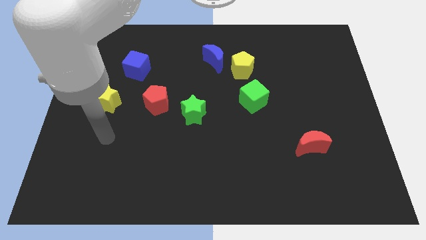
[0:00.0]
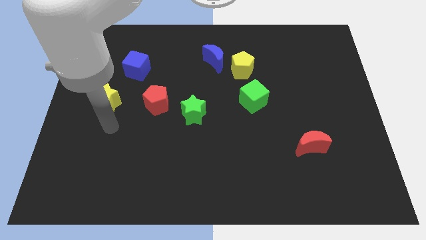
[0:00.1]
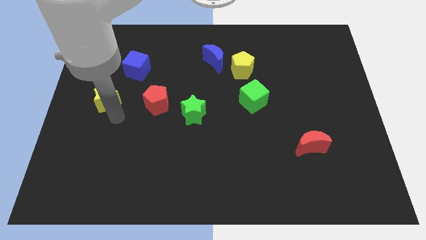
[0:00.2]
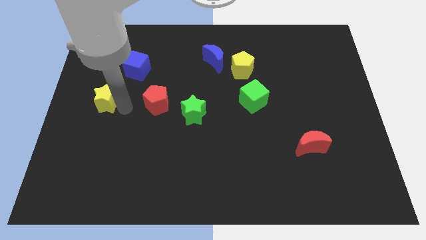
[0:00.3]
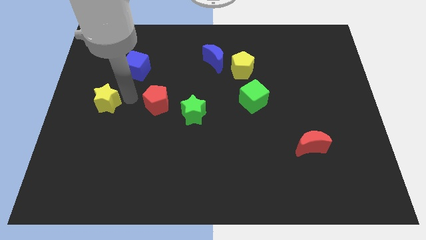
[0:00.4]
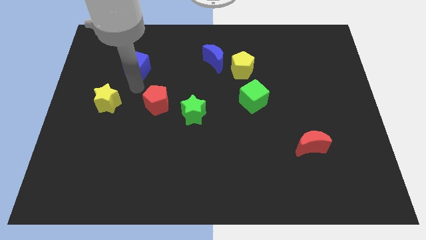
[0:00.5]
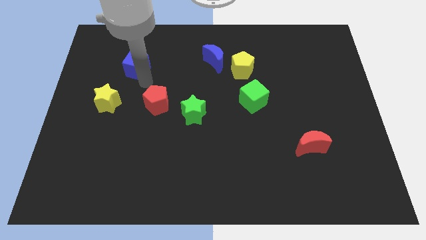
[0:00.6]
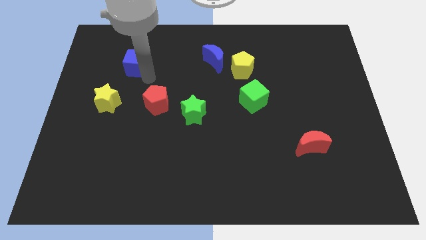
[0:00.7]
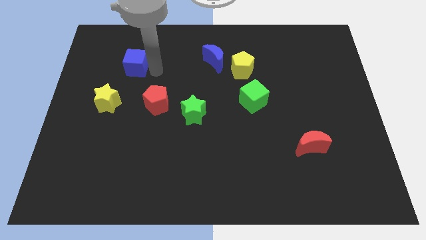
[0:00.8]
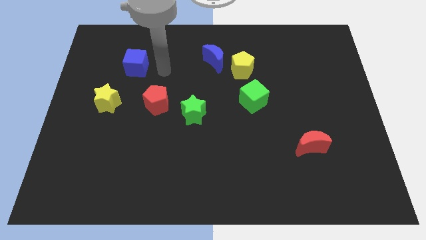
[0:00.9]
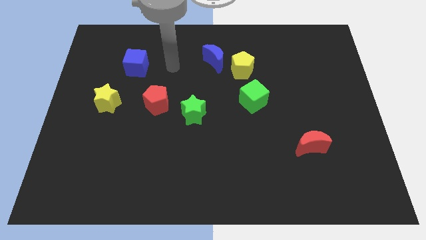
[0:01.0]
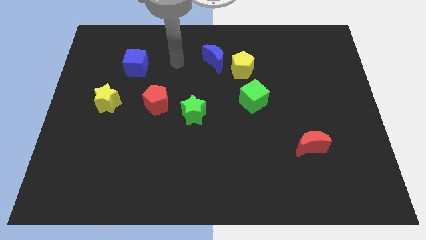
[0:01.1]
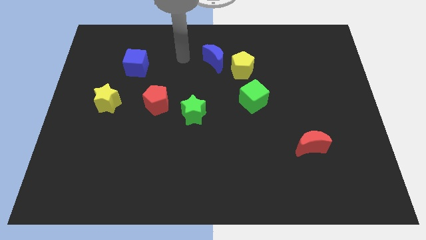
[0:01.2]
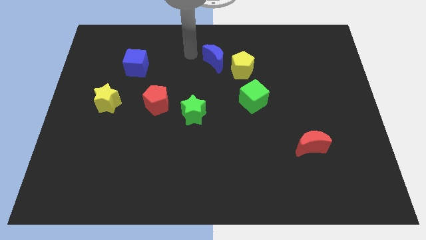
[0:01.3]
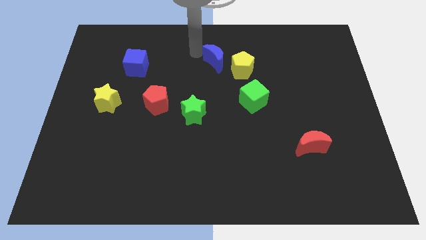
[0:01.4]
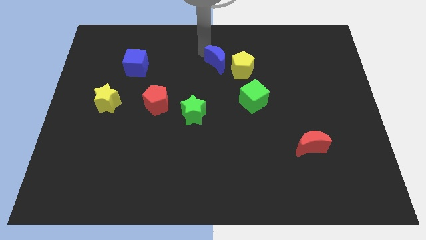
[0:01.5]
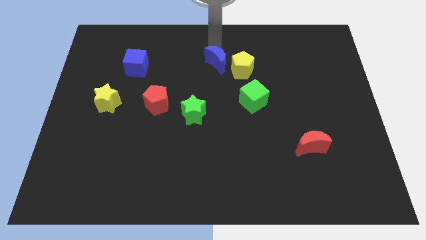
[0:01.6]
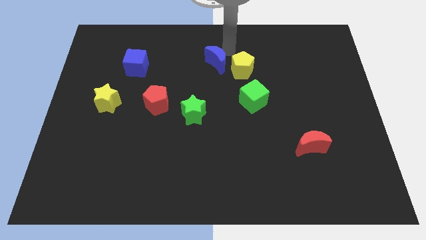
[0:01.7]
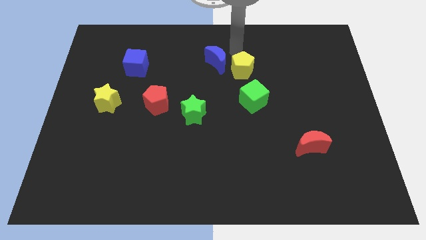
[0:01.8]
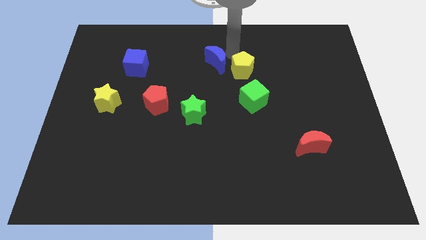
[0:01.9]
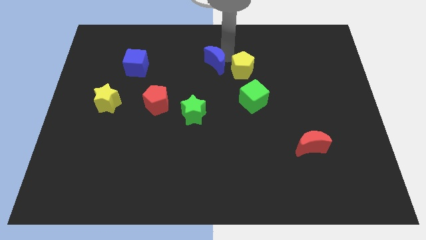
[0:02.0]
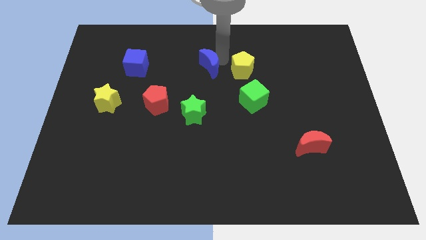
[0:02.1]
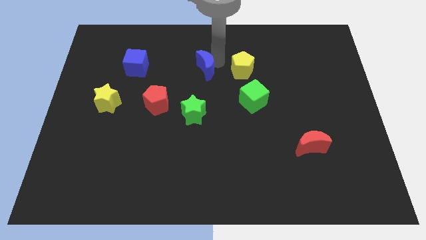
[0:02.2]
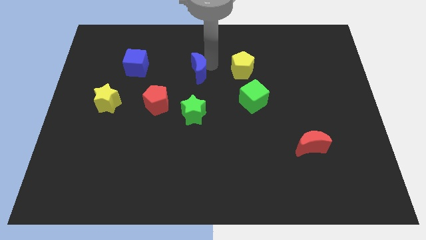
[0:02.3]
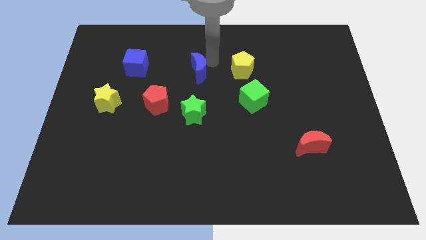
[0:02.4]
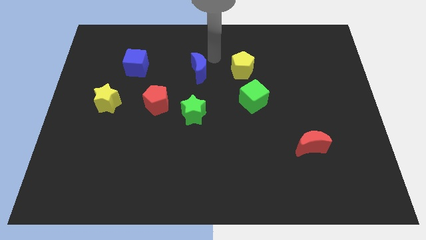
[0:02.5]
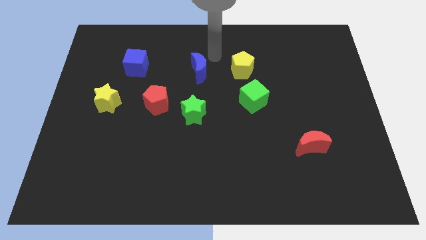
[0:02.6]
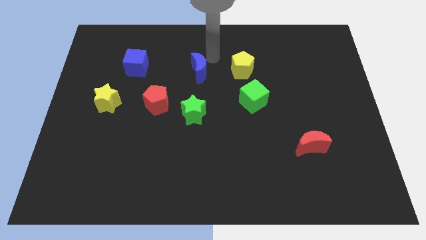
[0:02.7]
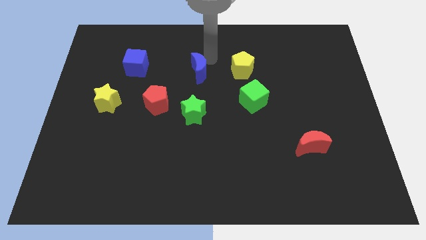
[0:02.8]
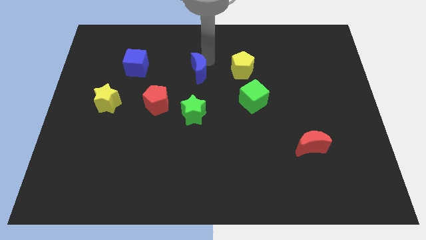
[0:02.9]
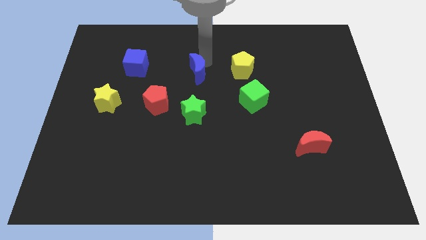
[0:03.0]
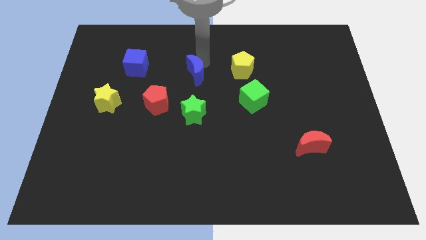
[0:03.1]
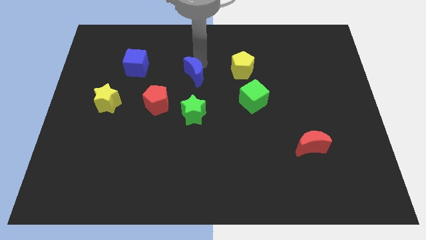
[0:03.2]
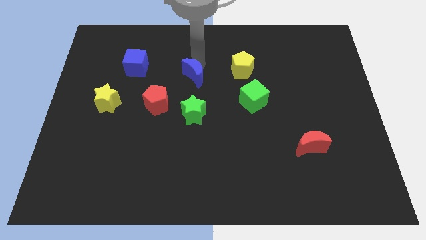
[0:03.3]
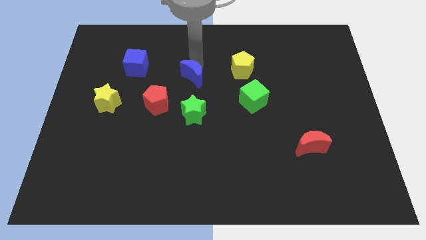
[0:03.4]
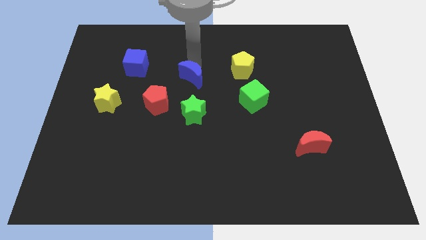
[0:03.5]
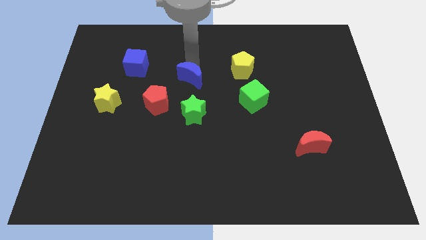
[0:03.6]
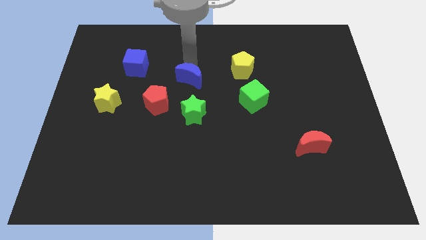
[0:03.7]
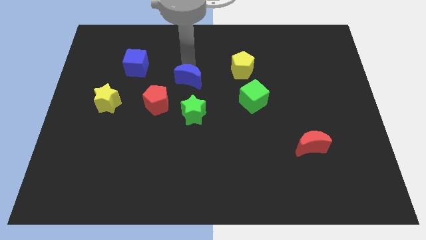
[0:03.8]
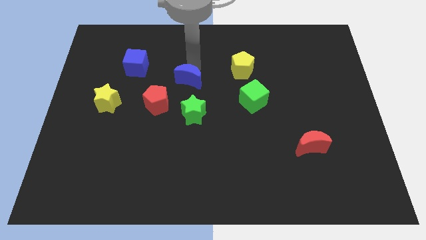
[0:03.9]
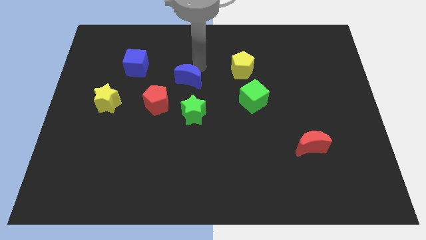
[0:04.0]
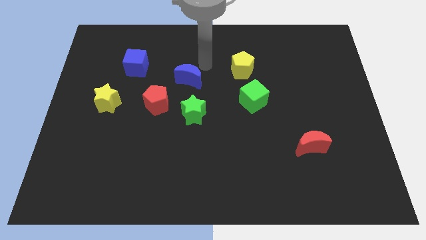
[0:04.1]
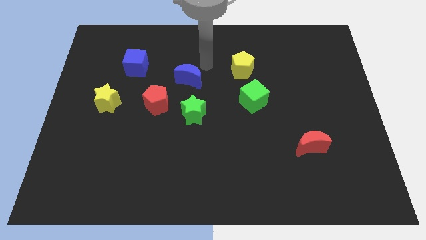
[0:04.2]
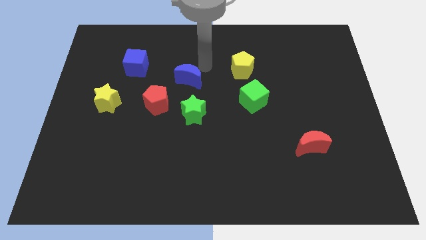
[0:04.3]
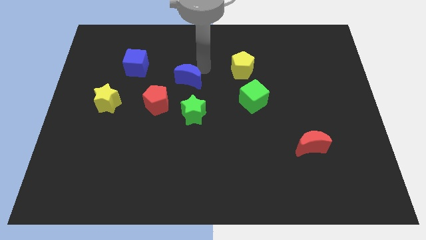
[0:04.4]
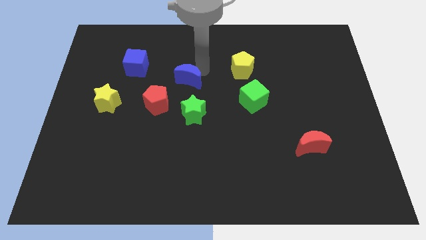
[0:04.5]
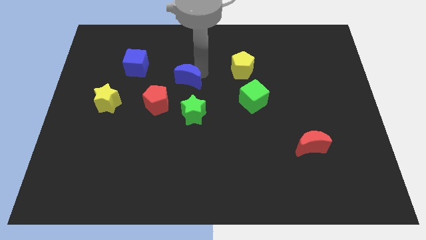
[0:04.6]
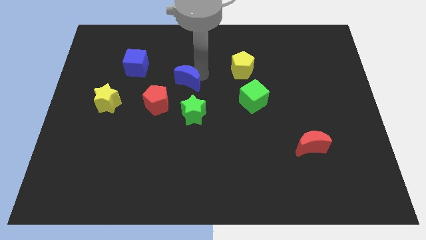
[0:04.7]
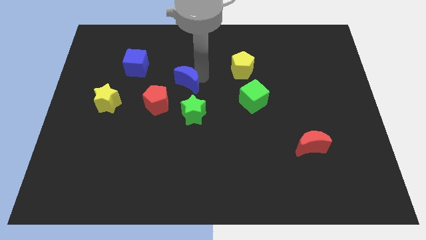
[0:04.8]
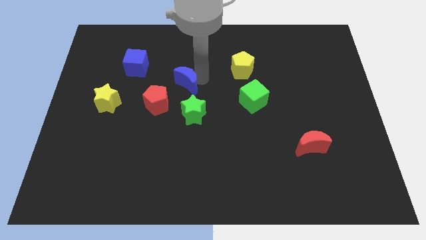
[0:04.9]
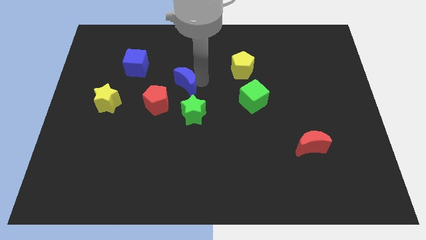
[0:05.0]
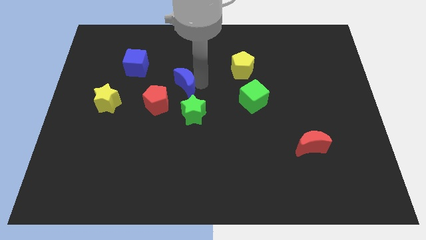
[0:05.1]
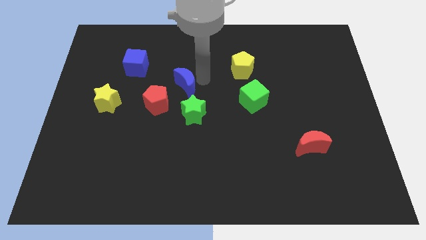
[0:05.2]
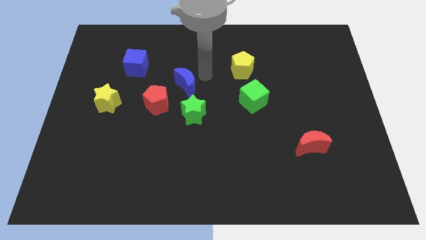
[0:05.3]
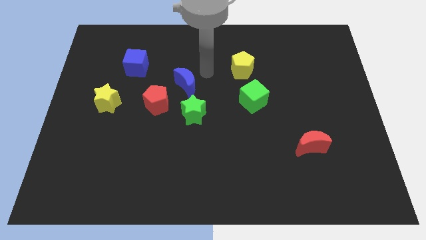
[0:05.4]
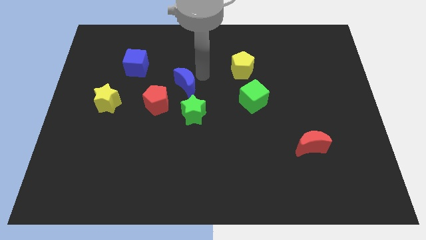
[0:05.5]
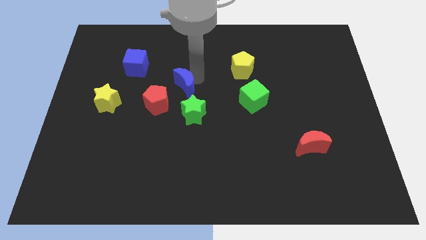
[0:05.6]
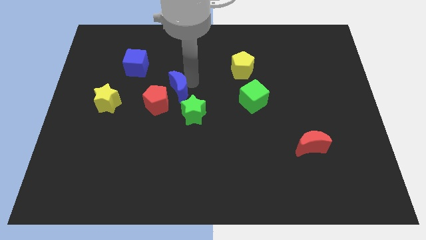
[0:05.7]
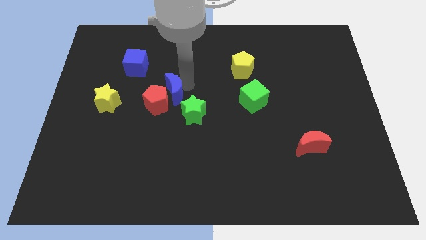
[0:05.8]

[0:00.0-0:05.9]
push the blue moon next to the red pentagon

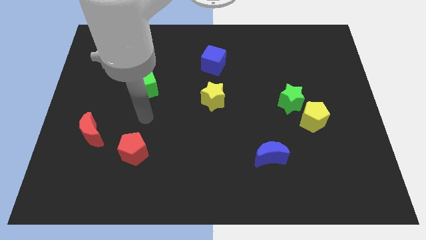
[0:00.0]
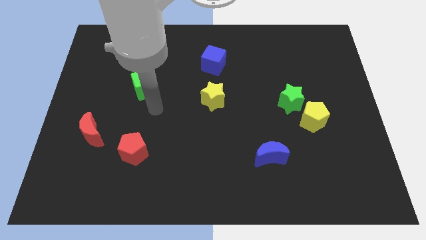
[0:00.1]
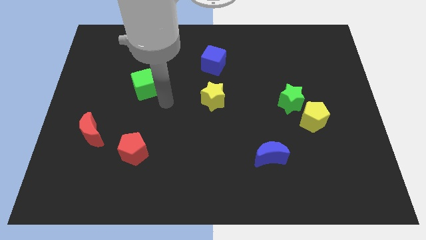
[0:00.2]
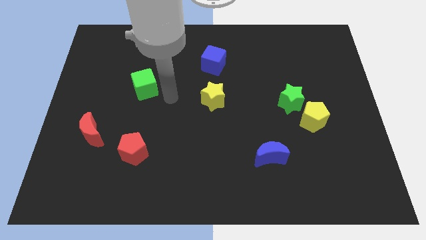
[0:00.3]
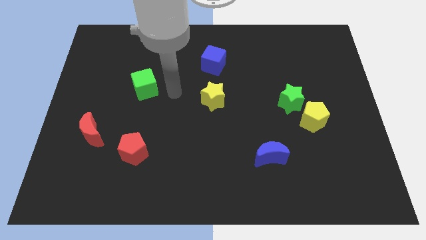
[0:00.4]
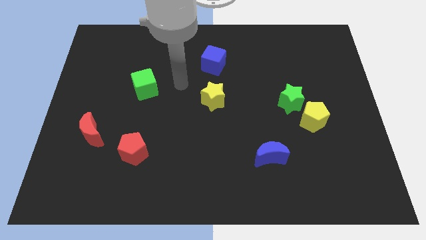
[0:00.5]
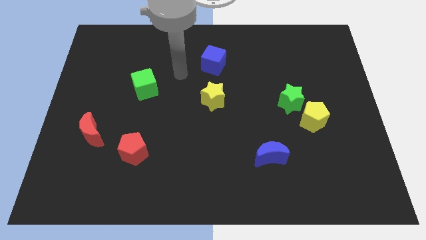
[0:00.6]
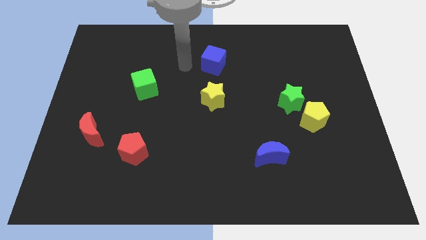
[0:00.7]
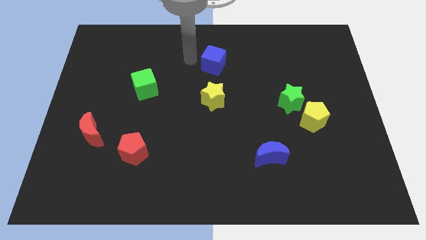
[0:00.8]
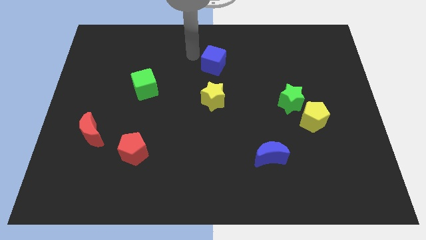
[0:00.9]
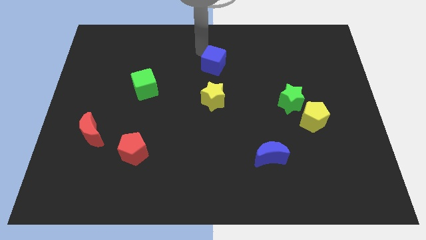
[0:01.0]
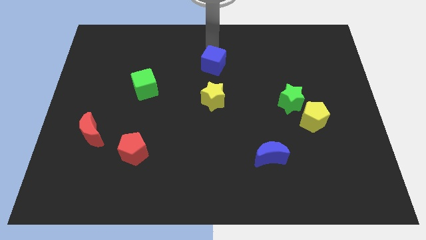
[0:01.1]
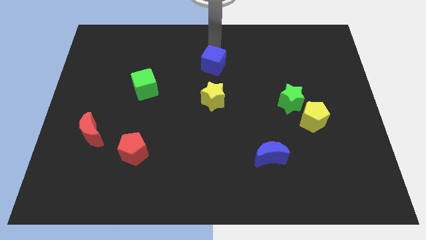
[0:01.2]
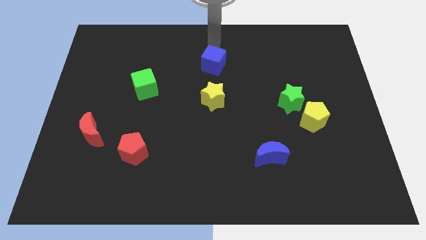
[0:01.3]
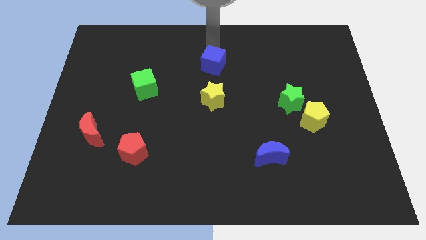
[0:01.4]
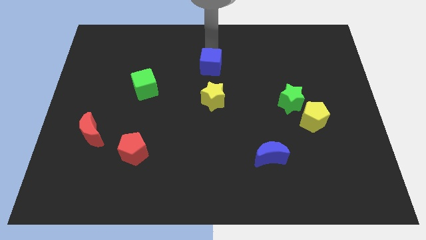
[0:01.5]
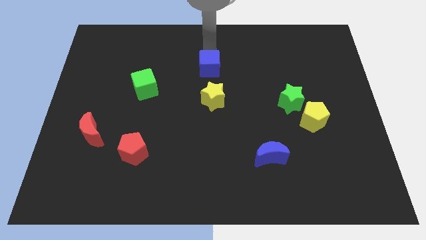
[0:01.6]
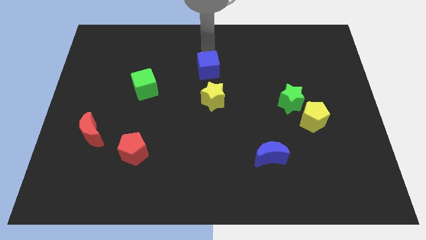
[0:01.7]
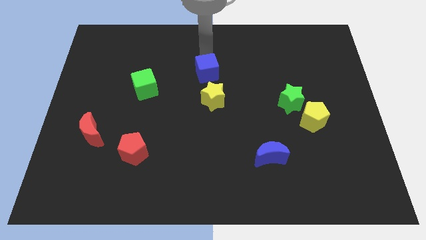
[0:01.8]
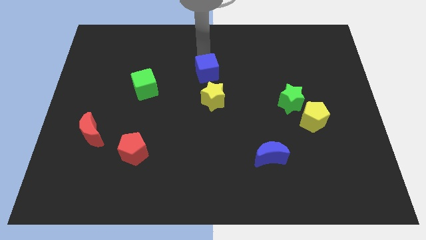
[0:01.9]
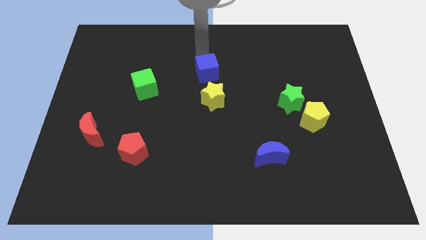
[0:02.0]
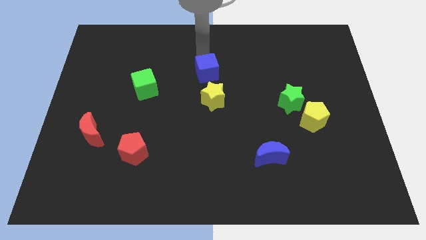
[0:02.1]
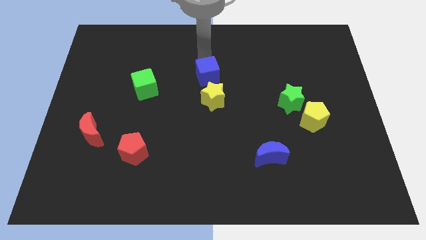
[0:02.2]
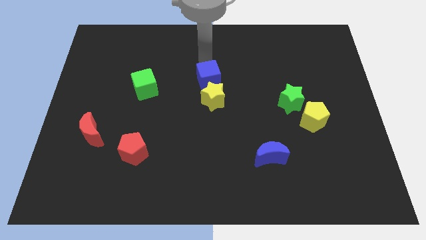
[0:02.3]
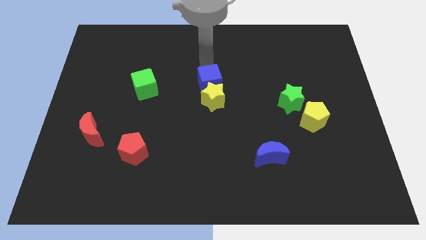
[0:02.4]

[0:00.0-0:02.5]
push the blue cube close to the yellow star
